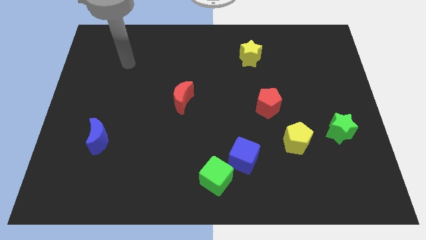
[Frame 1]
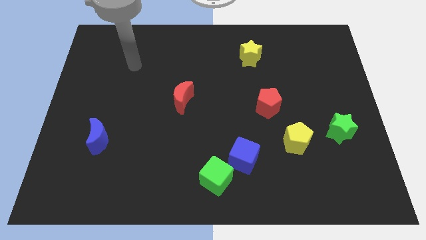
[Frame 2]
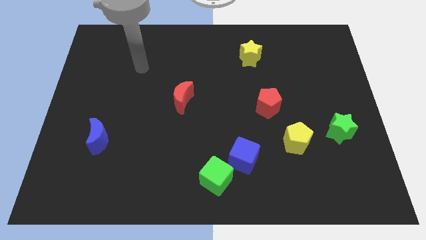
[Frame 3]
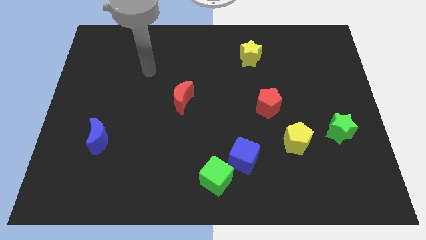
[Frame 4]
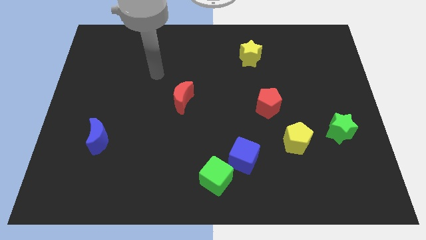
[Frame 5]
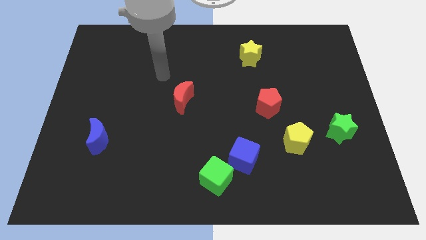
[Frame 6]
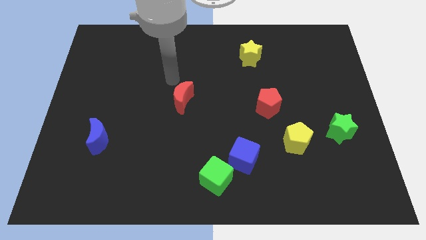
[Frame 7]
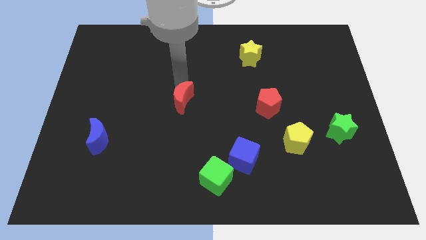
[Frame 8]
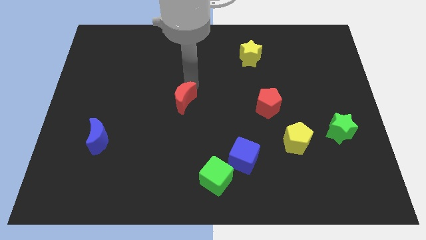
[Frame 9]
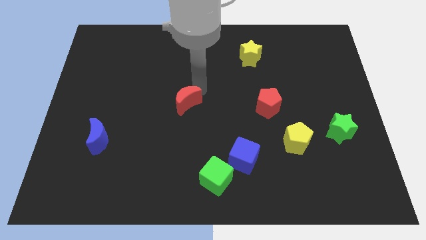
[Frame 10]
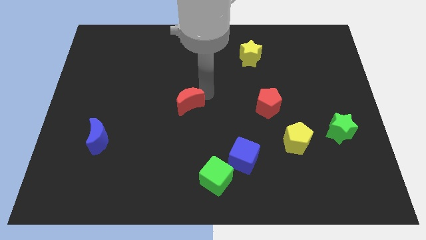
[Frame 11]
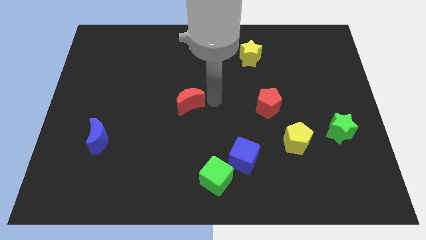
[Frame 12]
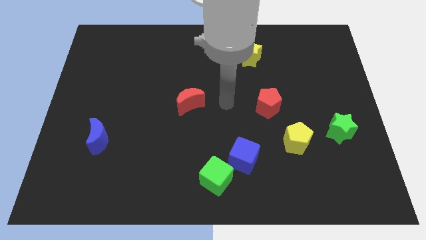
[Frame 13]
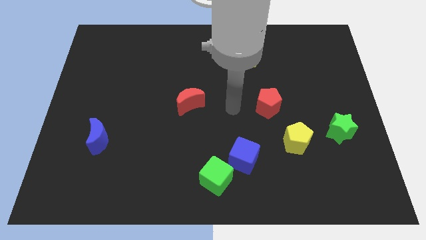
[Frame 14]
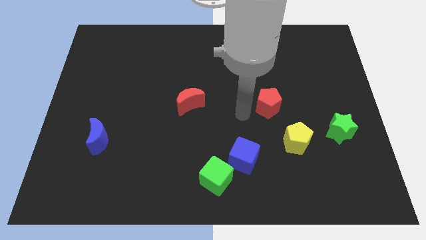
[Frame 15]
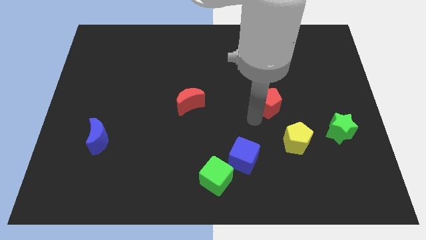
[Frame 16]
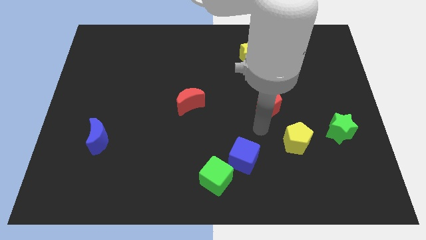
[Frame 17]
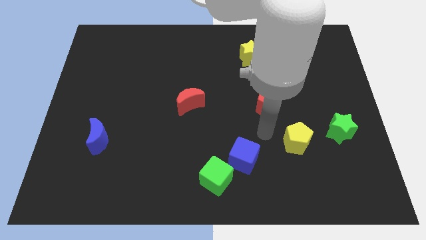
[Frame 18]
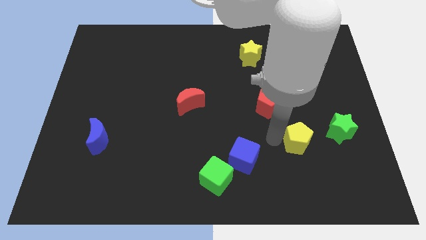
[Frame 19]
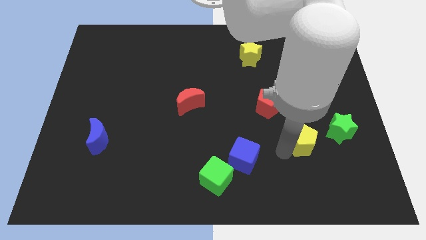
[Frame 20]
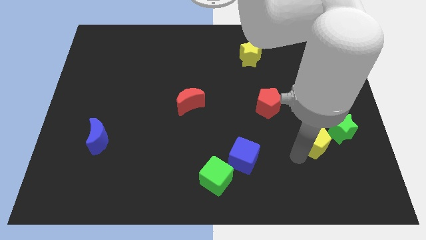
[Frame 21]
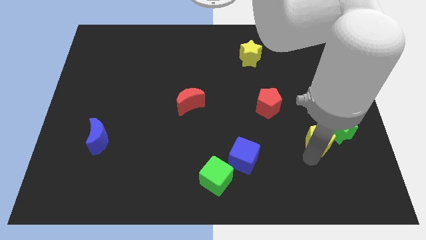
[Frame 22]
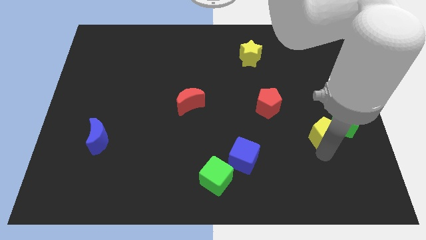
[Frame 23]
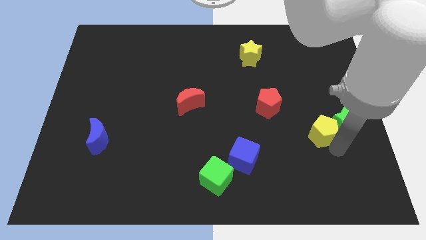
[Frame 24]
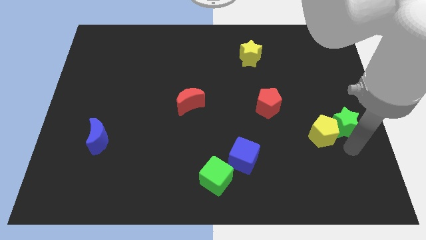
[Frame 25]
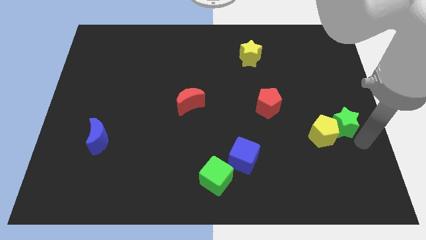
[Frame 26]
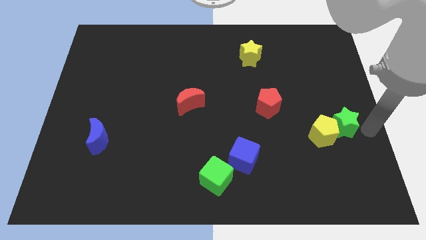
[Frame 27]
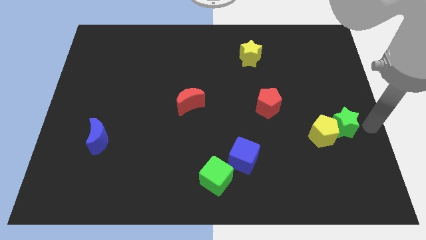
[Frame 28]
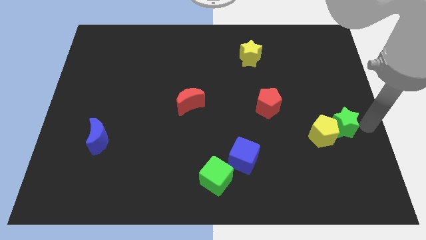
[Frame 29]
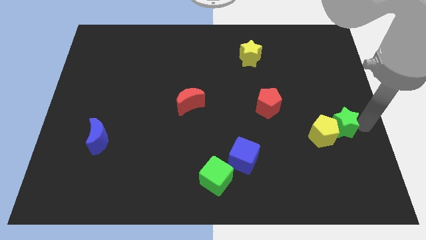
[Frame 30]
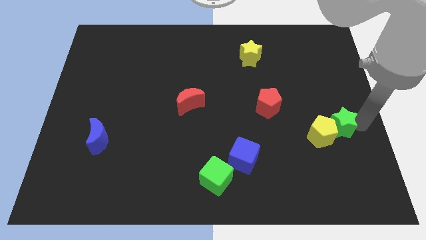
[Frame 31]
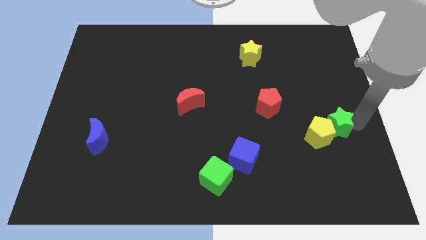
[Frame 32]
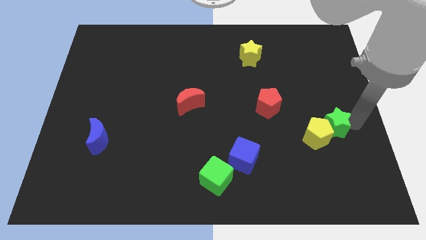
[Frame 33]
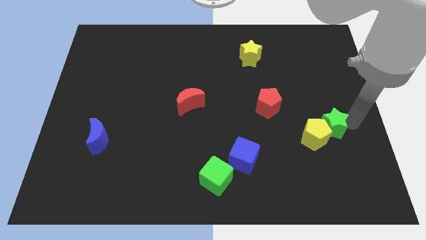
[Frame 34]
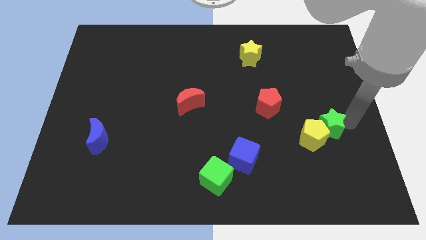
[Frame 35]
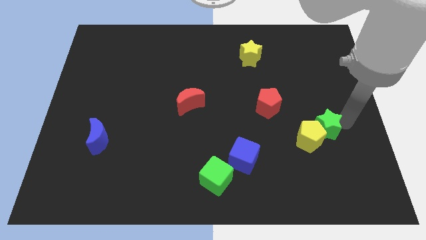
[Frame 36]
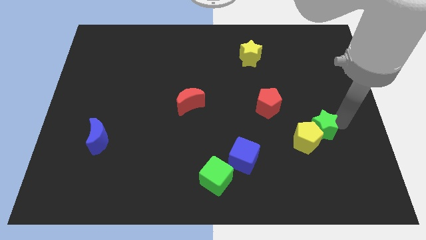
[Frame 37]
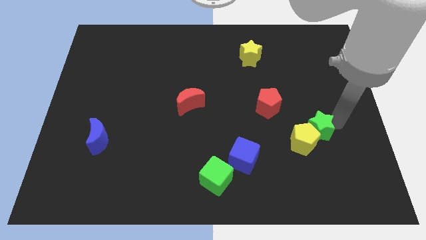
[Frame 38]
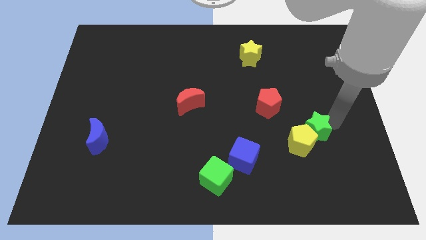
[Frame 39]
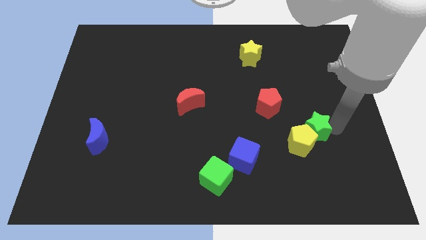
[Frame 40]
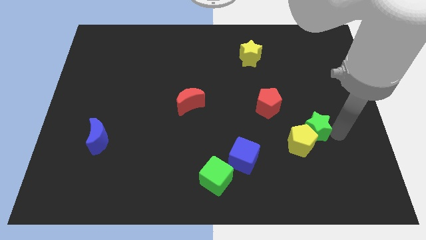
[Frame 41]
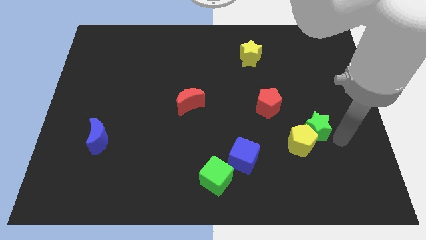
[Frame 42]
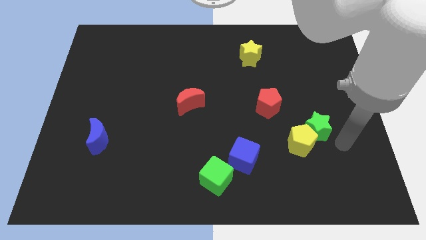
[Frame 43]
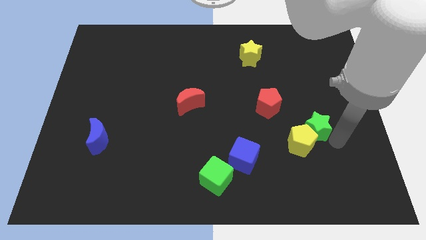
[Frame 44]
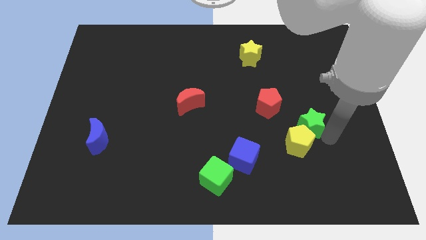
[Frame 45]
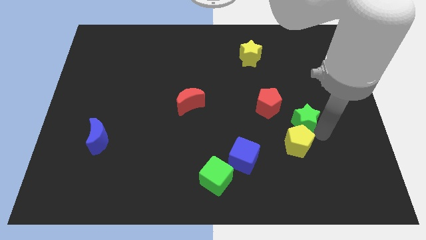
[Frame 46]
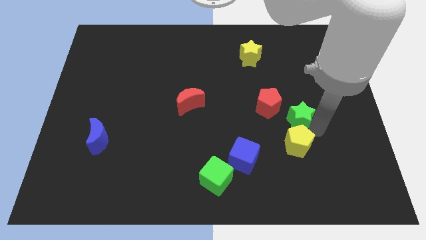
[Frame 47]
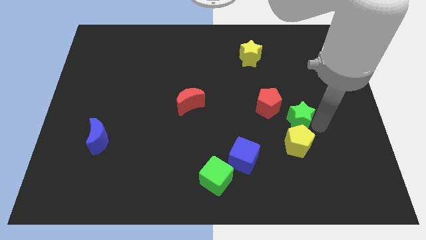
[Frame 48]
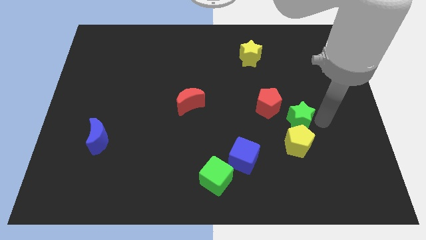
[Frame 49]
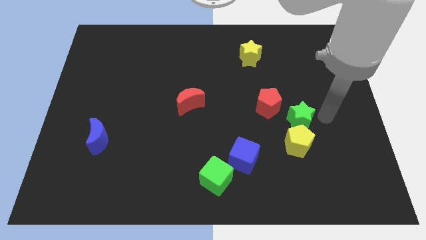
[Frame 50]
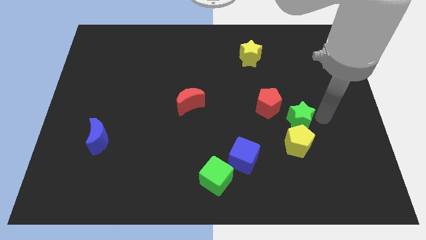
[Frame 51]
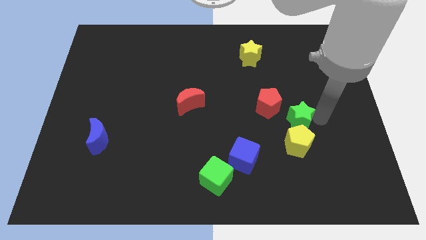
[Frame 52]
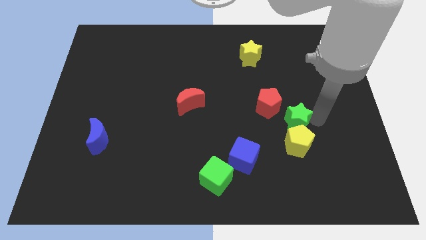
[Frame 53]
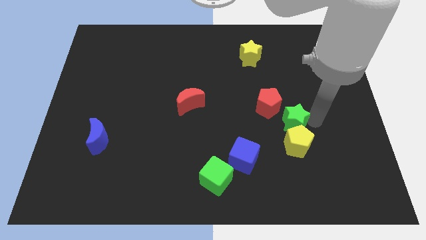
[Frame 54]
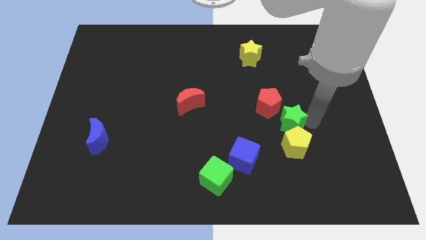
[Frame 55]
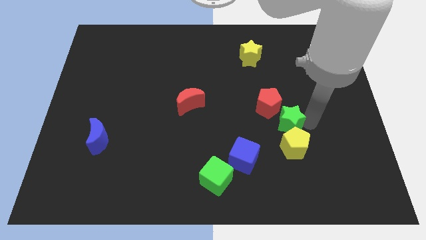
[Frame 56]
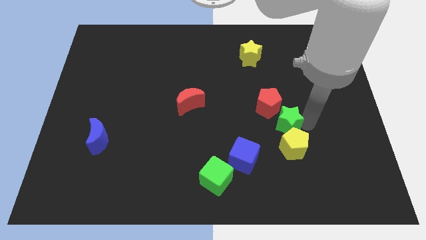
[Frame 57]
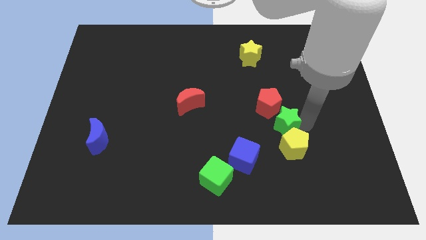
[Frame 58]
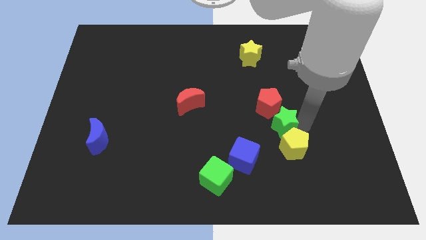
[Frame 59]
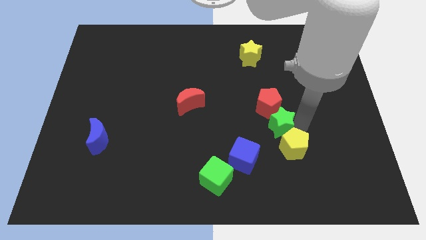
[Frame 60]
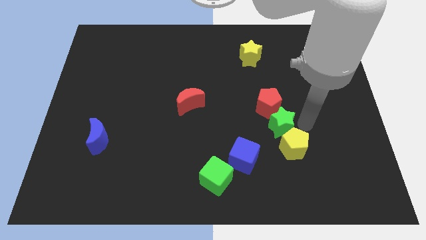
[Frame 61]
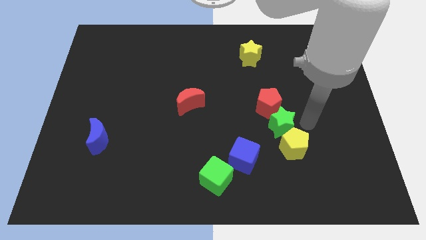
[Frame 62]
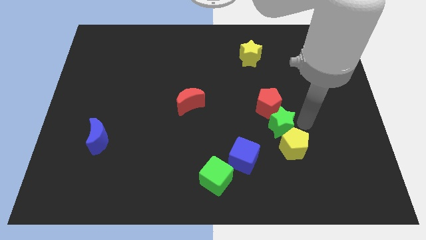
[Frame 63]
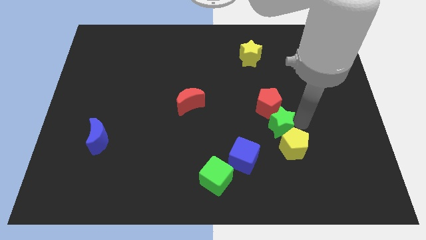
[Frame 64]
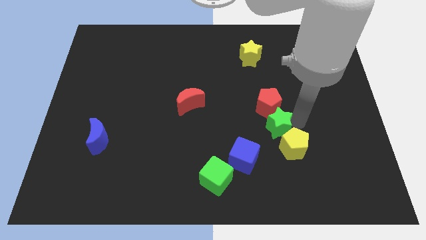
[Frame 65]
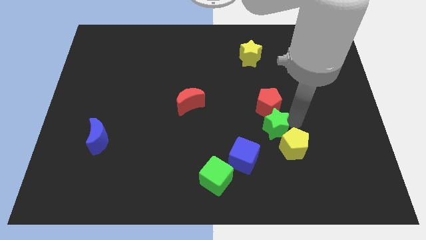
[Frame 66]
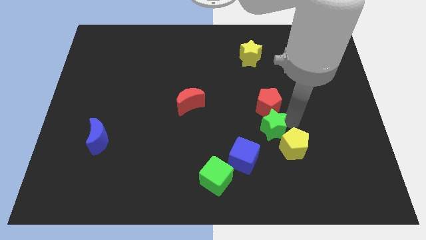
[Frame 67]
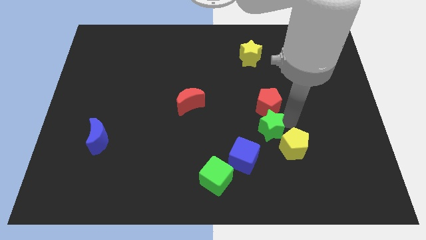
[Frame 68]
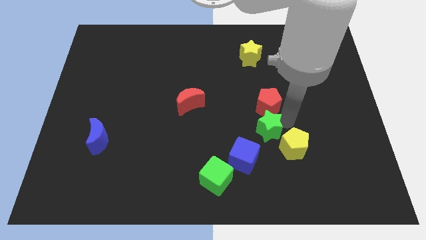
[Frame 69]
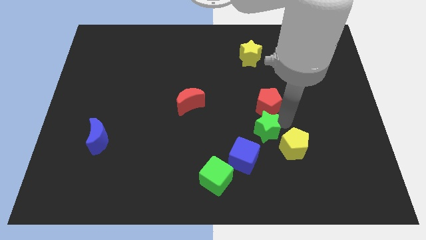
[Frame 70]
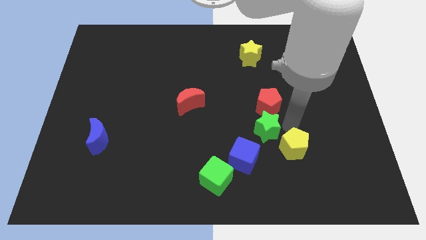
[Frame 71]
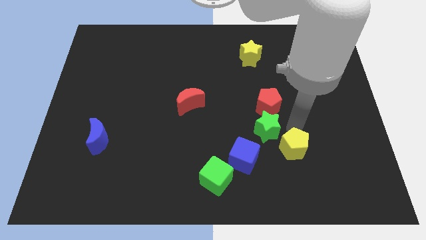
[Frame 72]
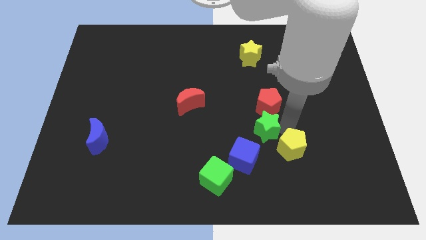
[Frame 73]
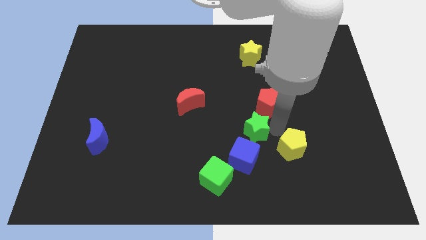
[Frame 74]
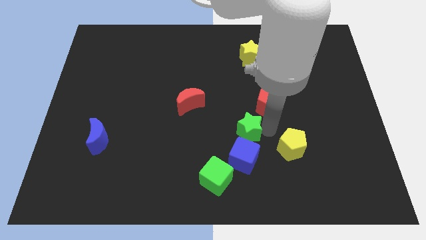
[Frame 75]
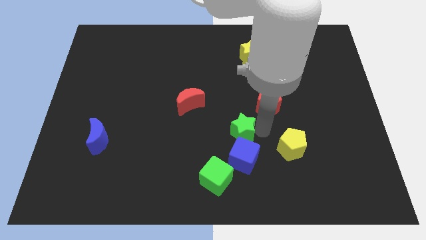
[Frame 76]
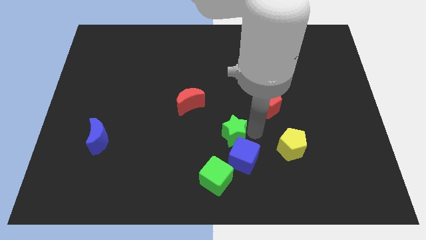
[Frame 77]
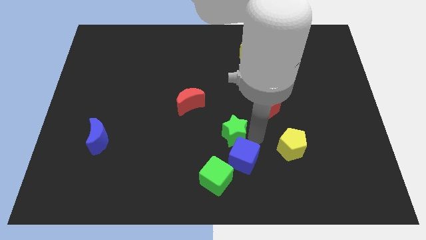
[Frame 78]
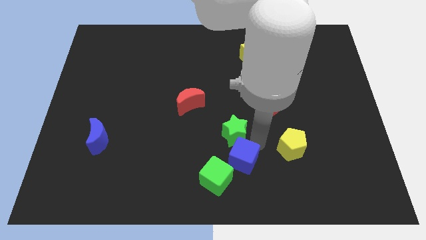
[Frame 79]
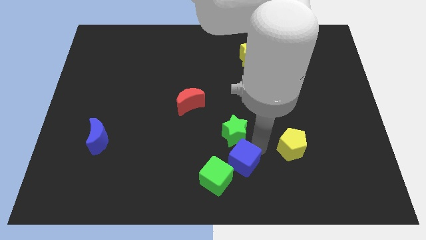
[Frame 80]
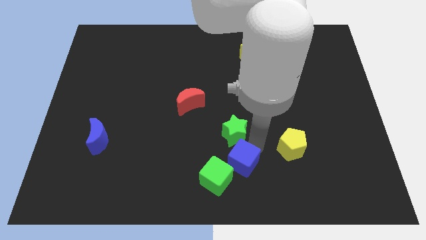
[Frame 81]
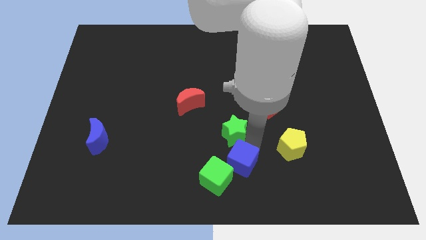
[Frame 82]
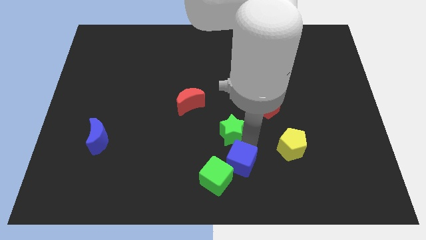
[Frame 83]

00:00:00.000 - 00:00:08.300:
move the green star to the bottom right side of the red moon
